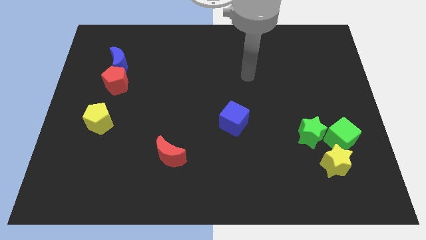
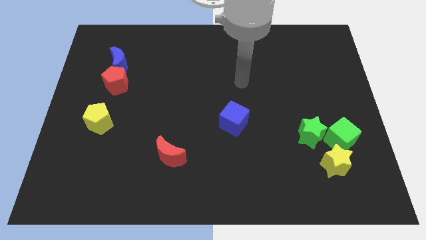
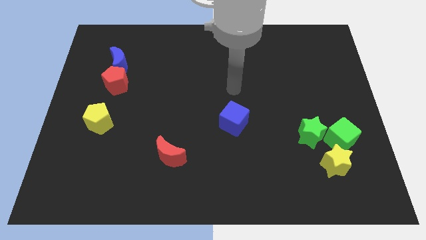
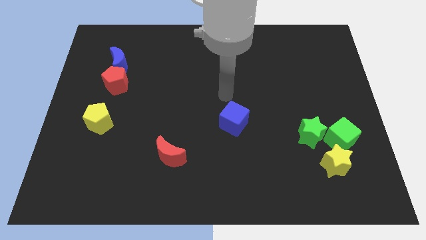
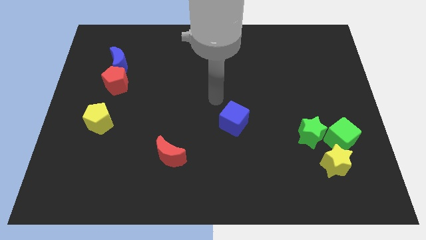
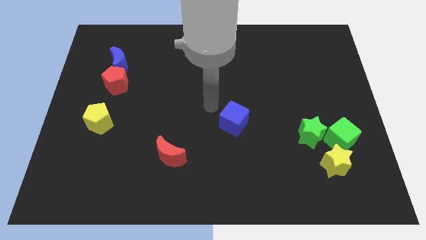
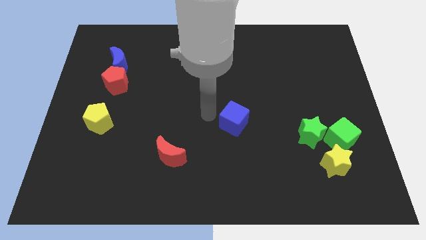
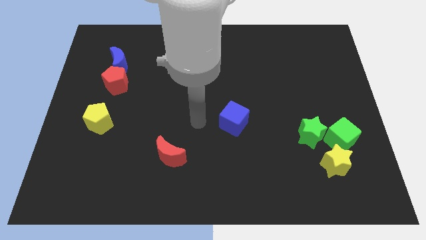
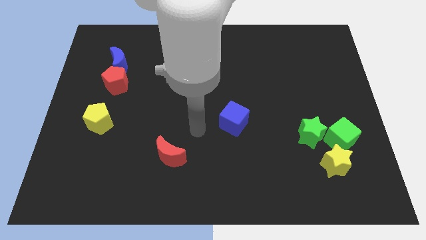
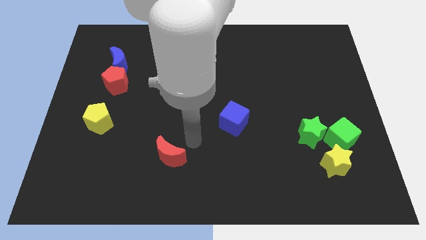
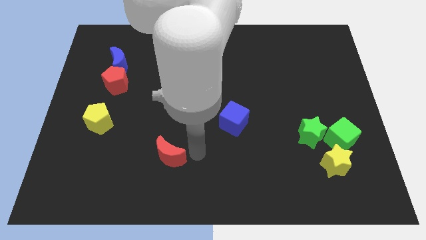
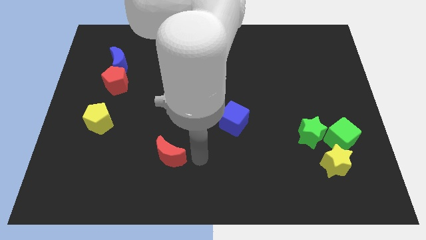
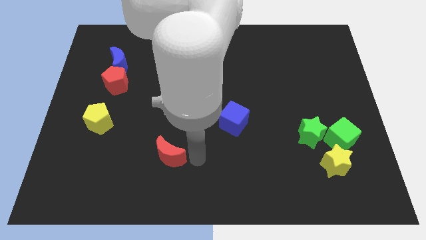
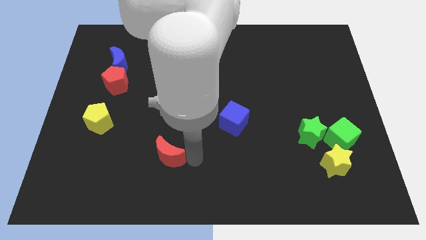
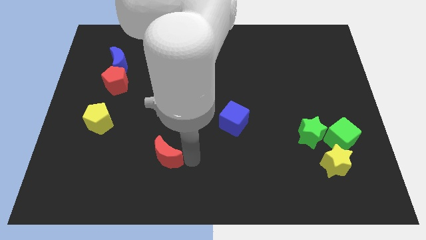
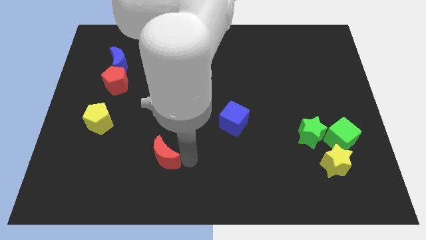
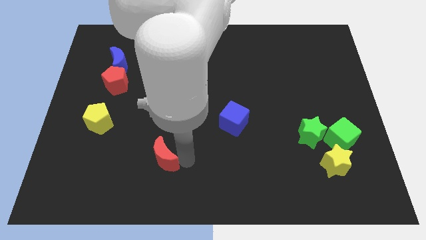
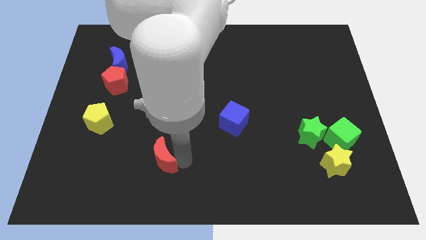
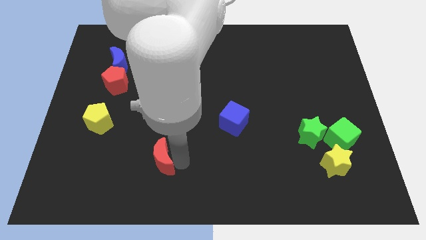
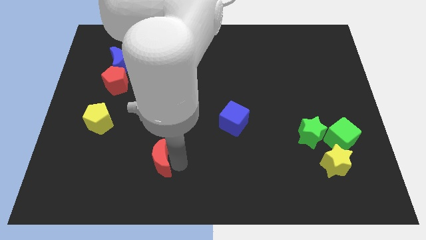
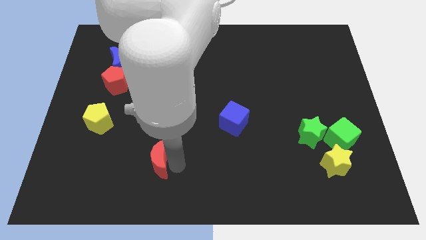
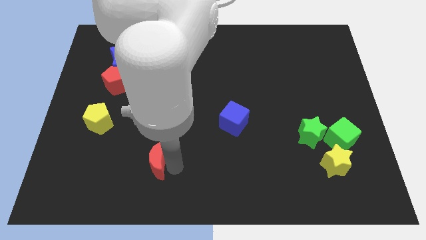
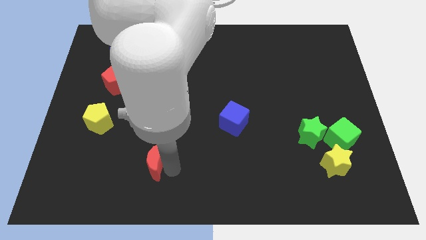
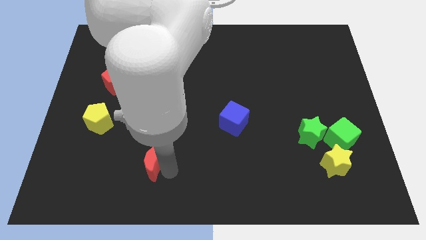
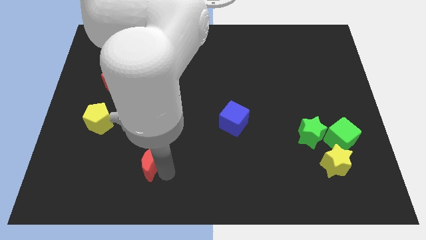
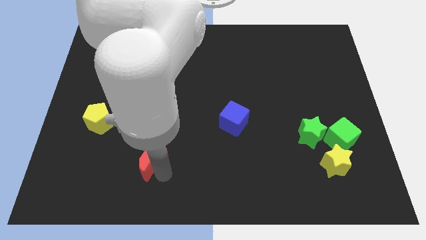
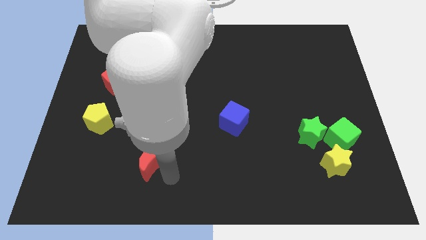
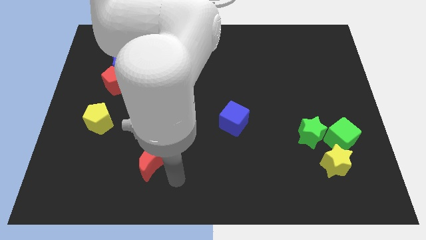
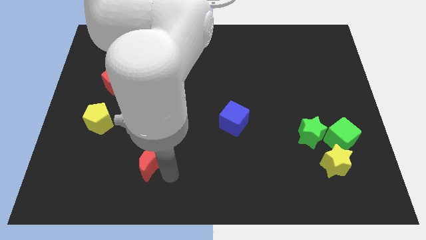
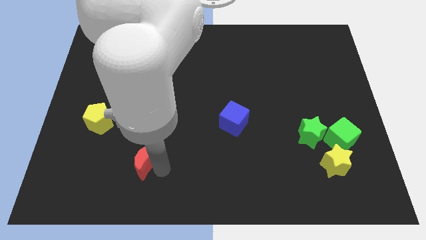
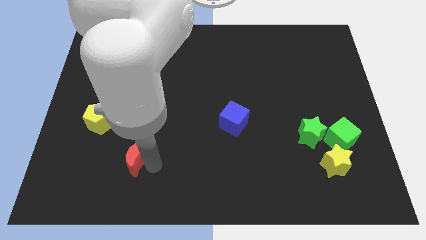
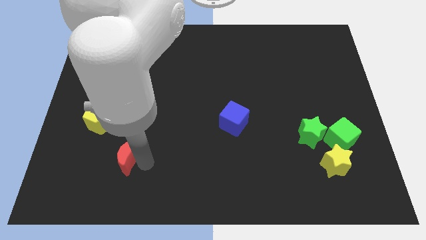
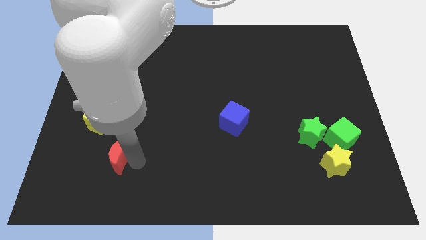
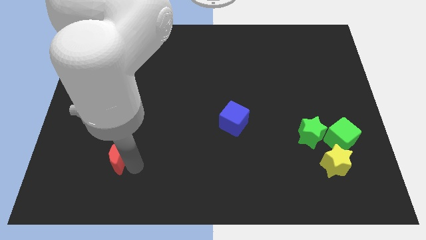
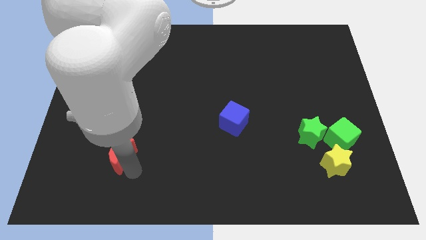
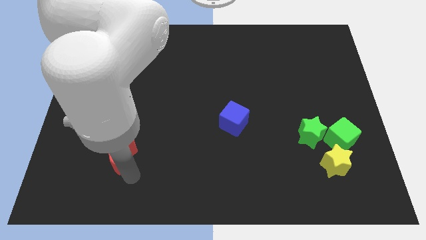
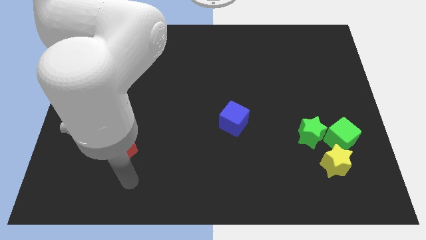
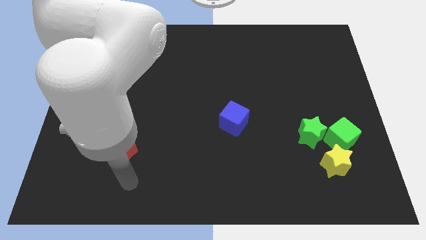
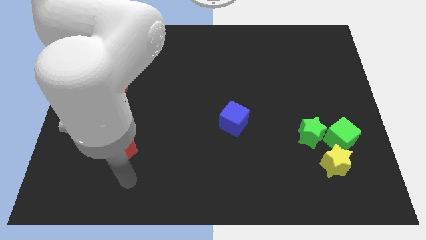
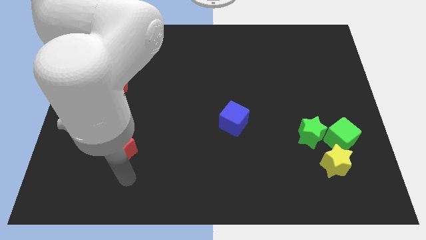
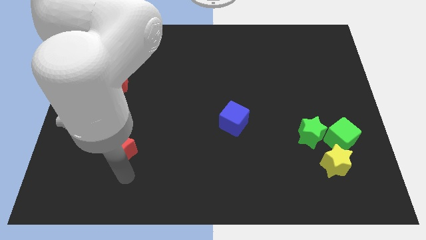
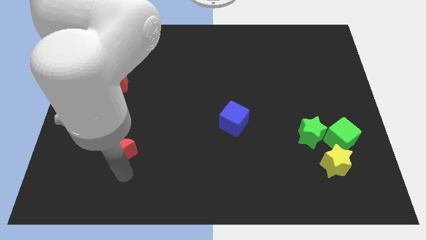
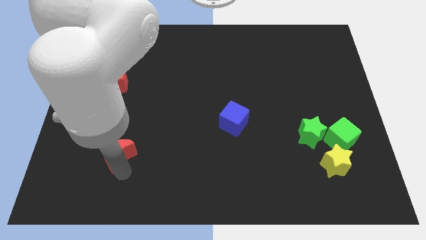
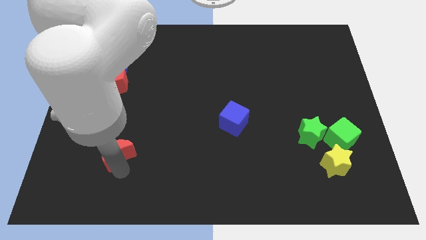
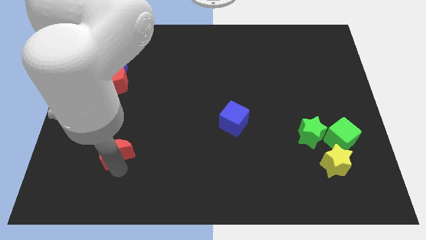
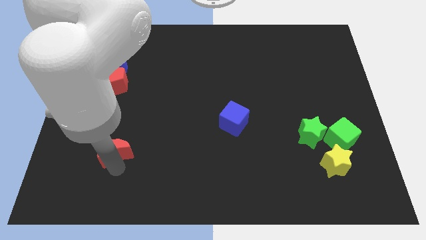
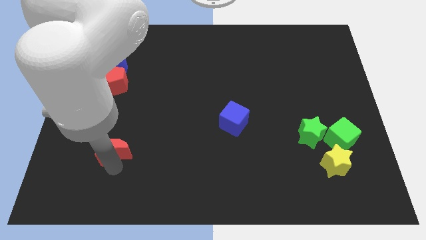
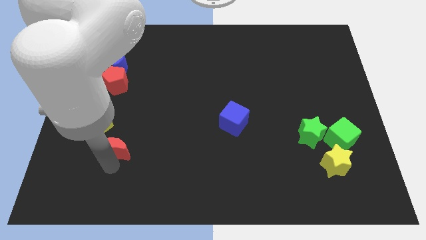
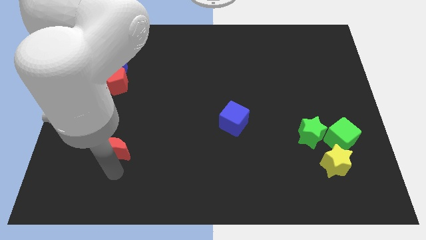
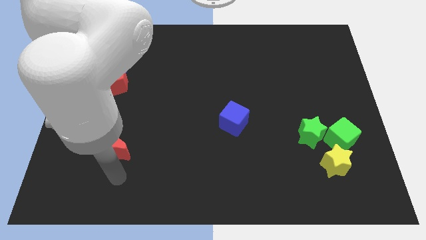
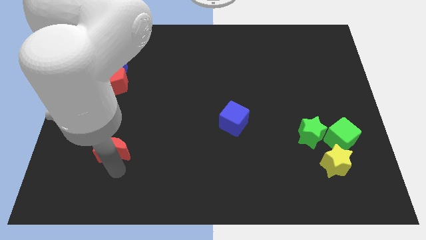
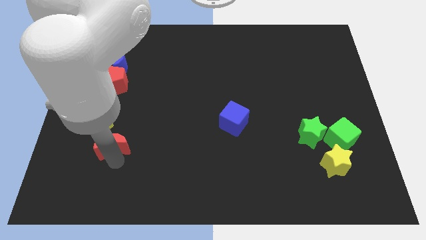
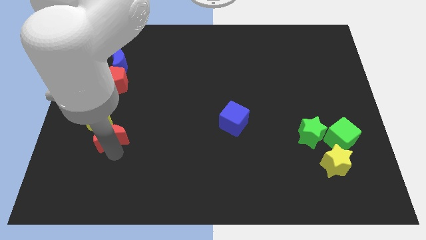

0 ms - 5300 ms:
push the red moon to the bottom of the red pentagon

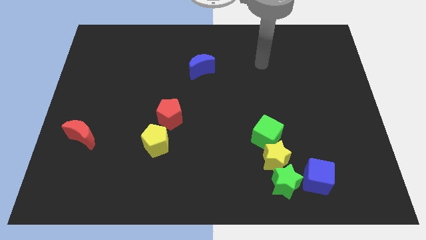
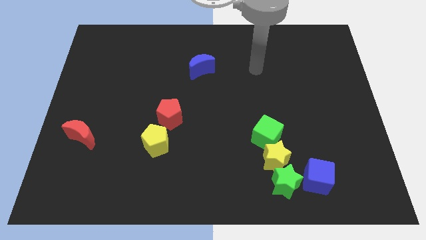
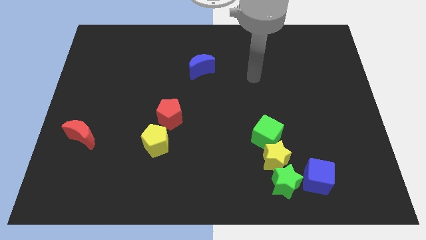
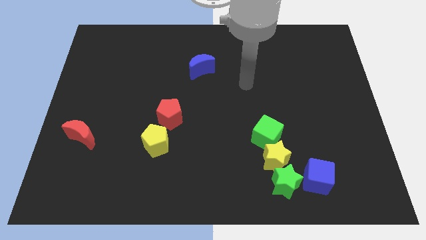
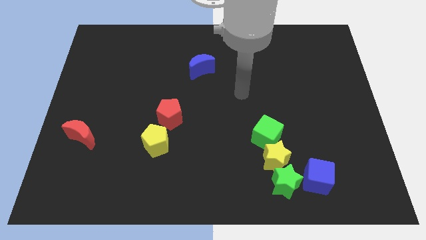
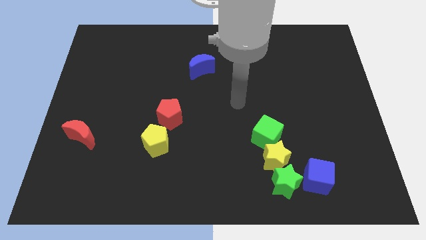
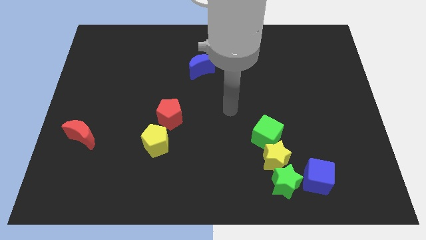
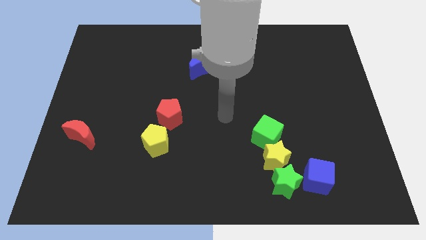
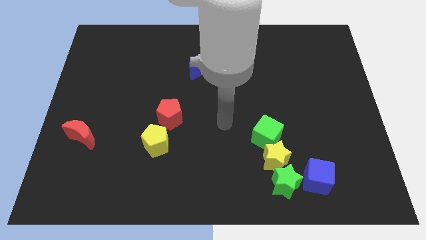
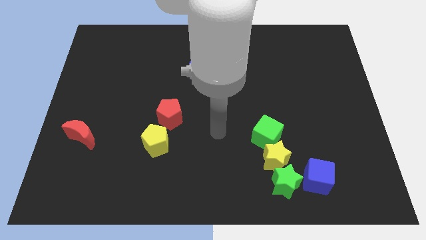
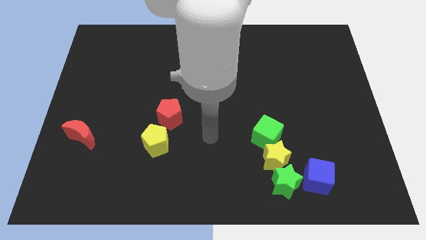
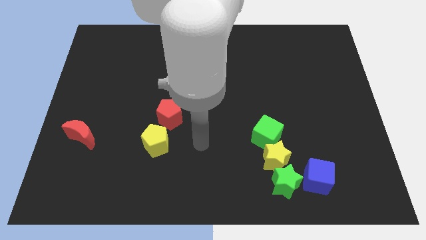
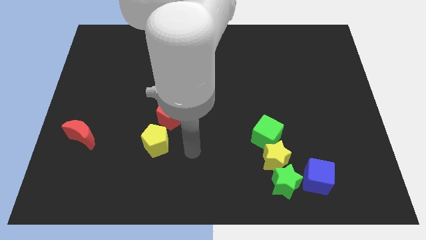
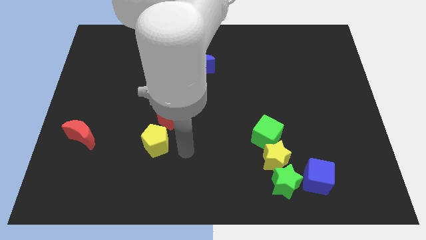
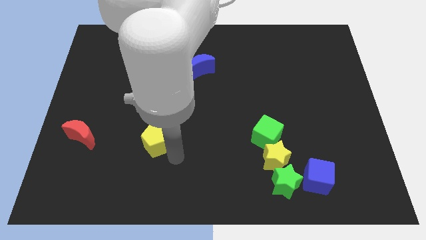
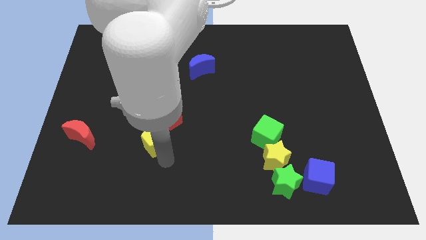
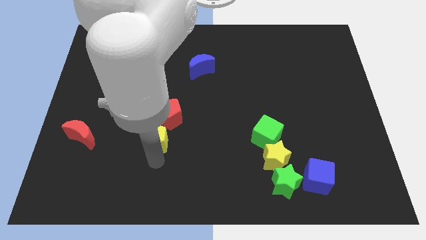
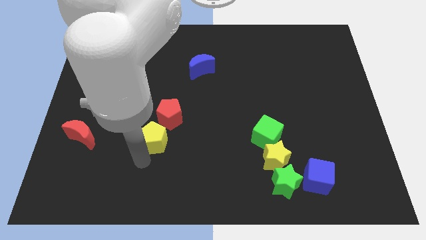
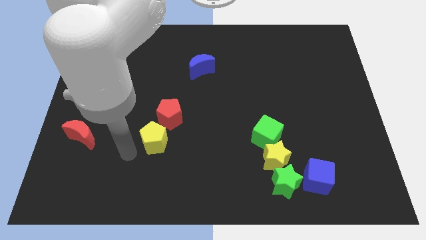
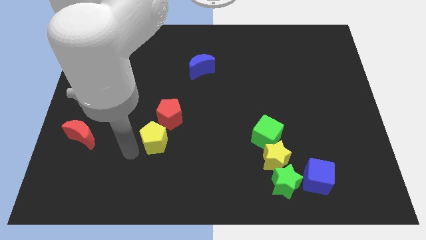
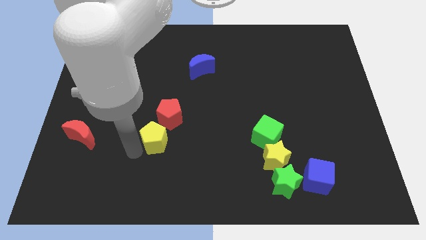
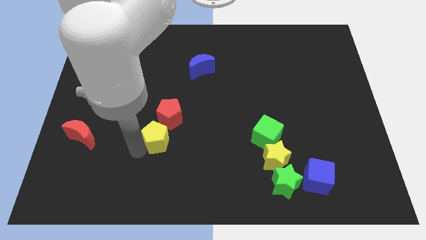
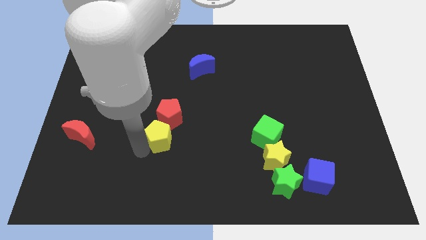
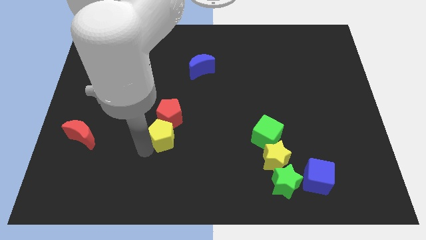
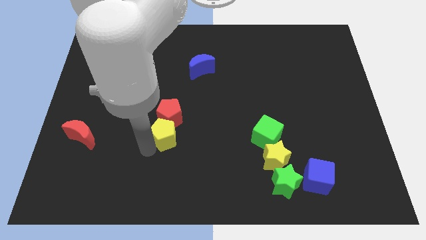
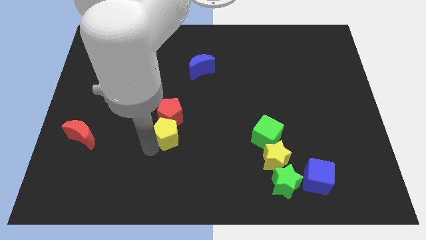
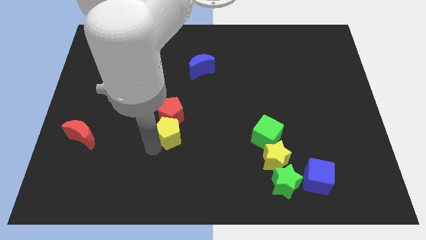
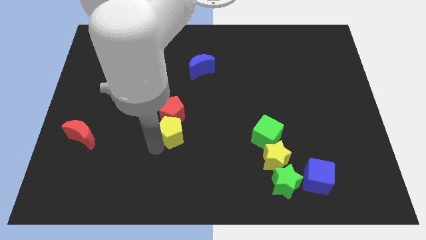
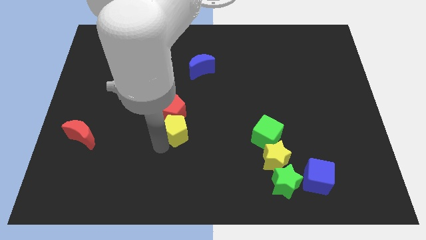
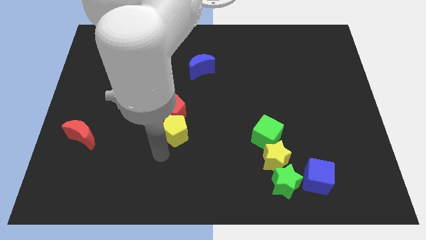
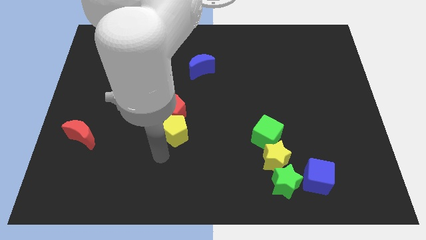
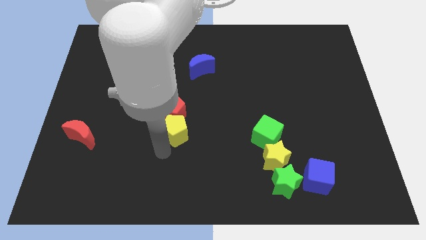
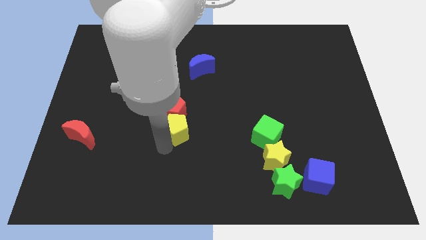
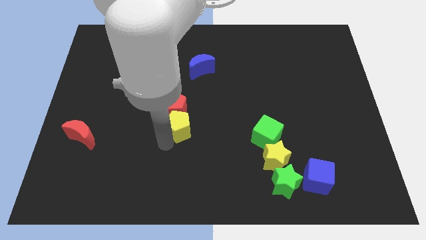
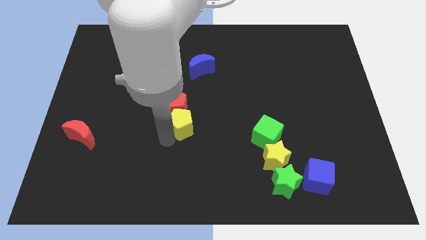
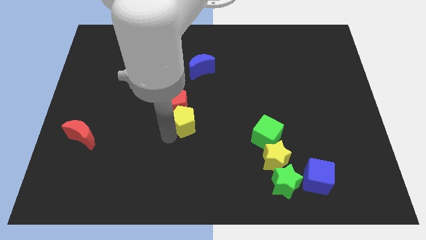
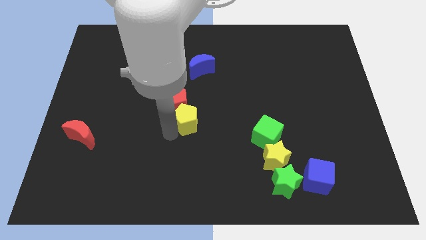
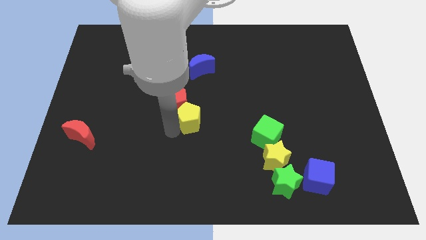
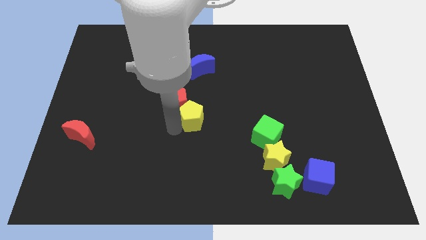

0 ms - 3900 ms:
move the yellow pentagon below the blue moon
